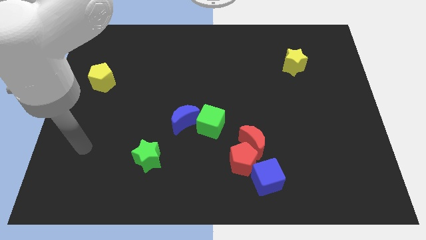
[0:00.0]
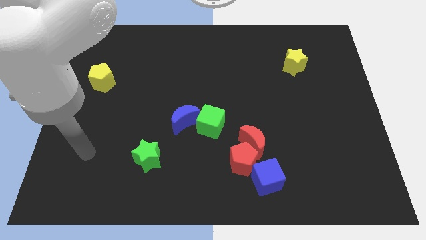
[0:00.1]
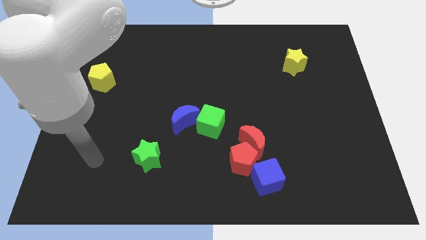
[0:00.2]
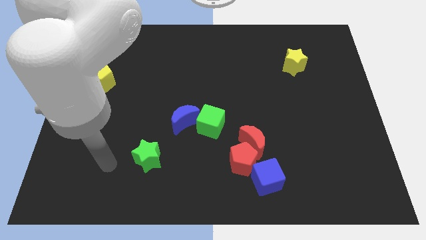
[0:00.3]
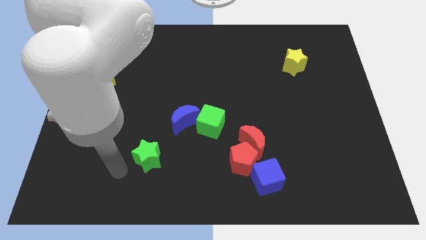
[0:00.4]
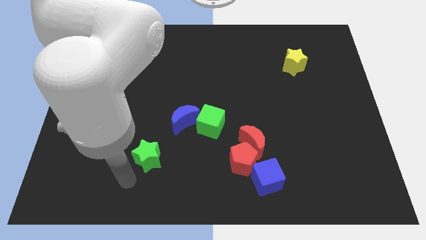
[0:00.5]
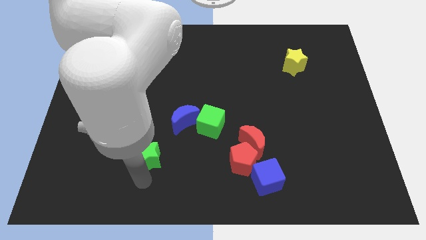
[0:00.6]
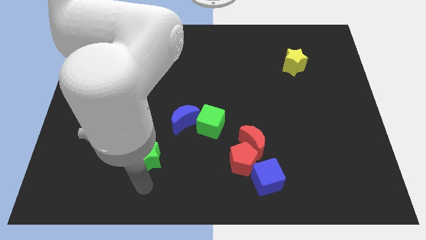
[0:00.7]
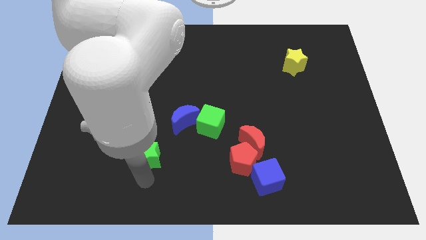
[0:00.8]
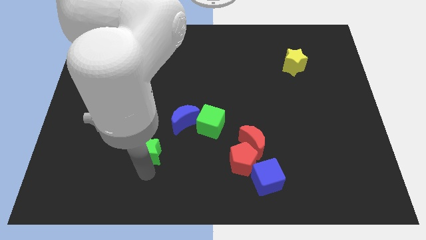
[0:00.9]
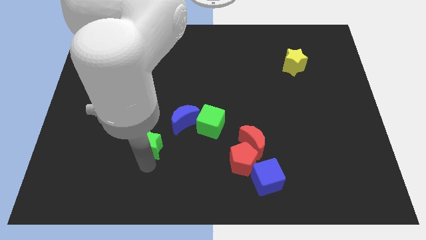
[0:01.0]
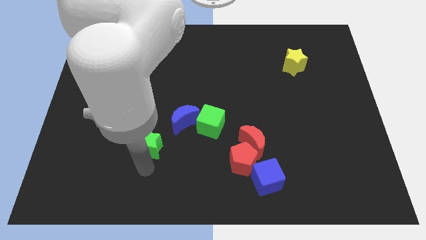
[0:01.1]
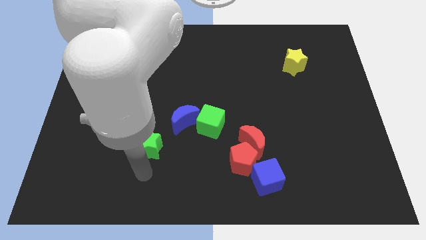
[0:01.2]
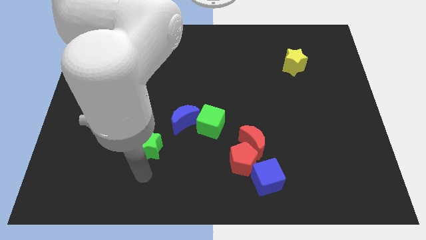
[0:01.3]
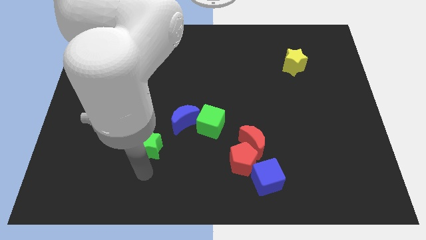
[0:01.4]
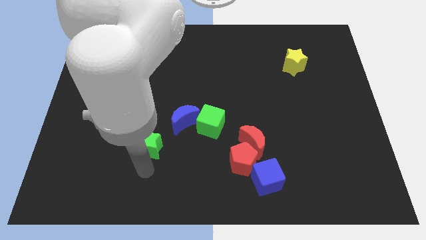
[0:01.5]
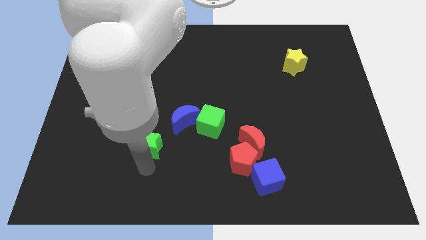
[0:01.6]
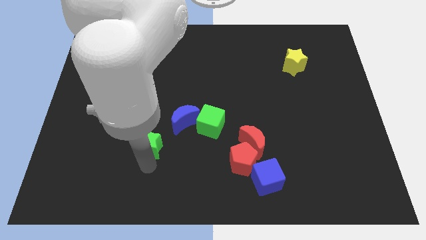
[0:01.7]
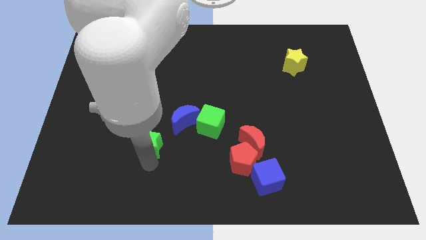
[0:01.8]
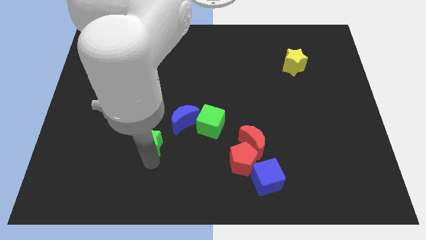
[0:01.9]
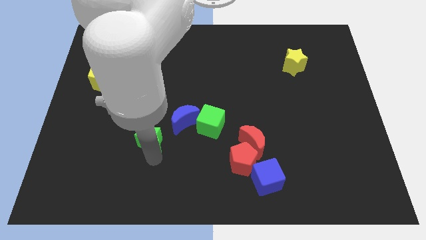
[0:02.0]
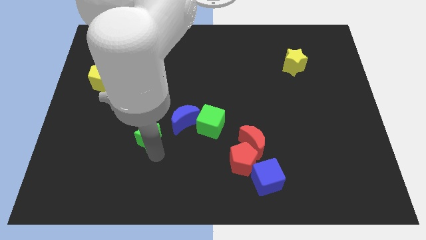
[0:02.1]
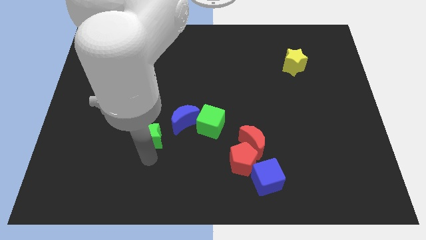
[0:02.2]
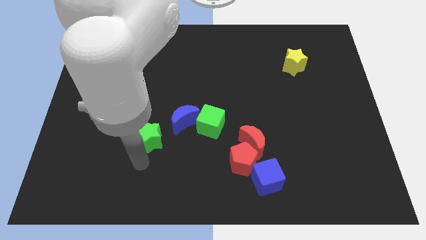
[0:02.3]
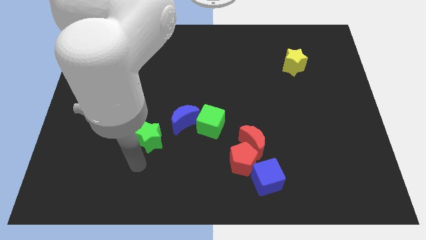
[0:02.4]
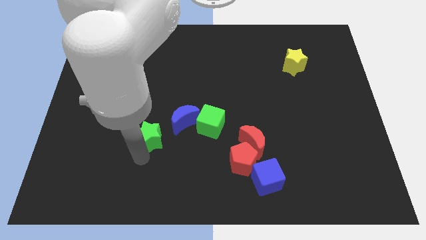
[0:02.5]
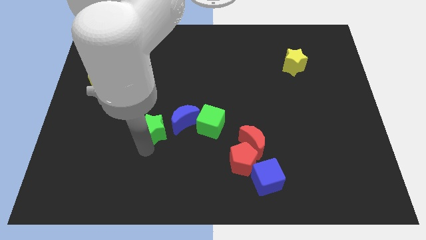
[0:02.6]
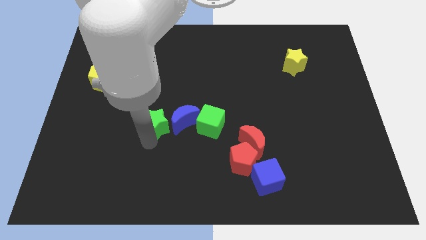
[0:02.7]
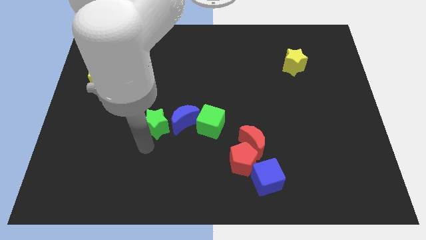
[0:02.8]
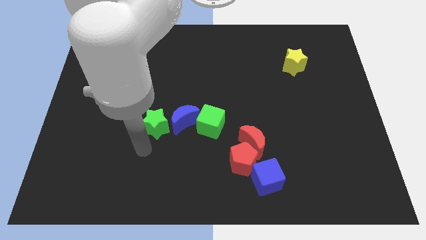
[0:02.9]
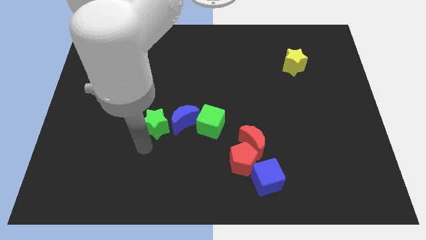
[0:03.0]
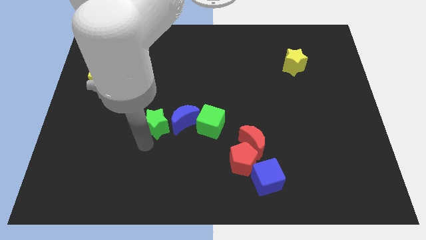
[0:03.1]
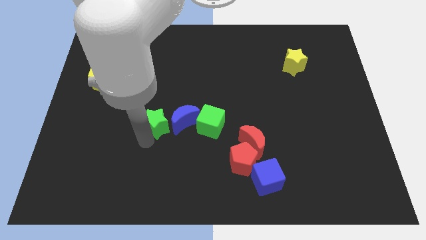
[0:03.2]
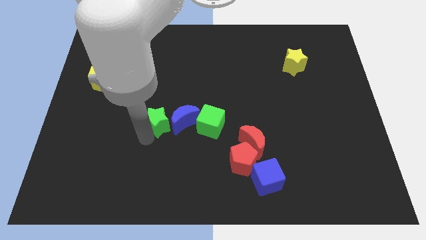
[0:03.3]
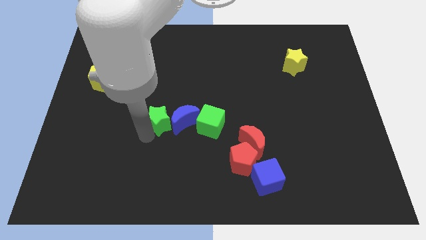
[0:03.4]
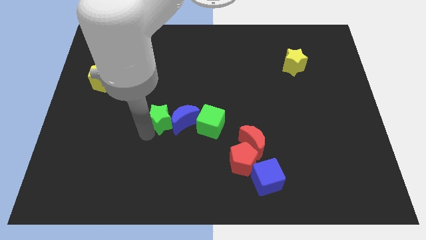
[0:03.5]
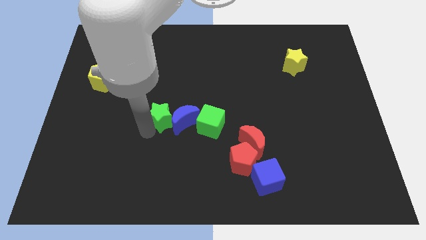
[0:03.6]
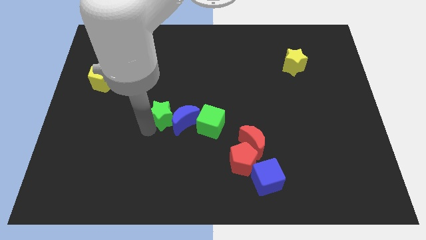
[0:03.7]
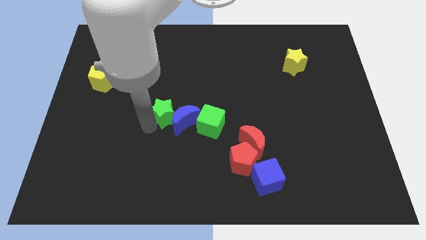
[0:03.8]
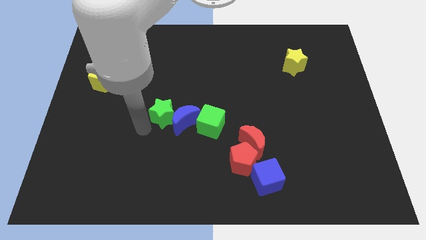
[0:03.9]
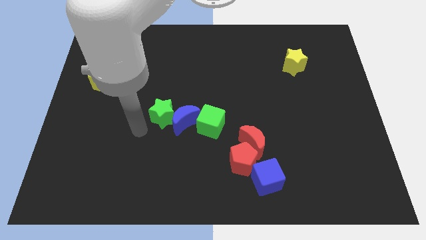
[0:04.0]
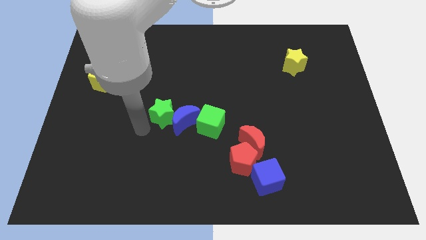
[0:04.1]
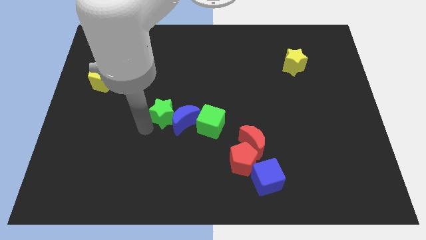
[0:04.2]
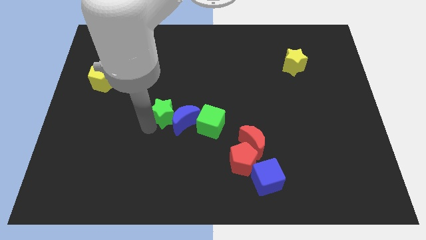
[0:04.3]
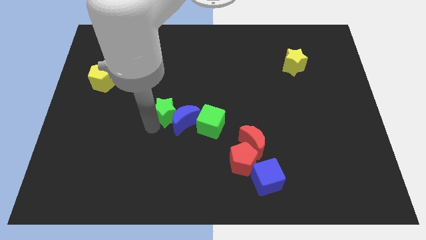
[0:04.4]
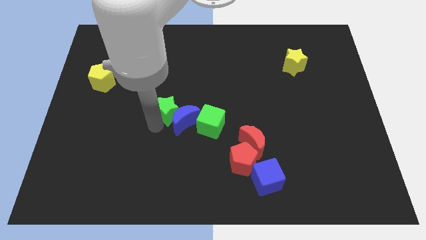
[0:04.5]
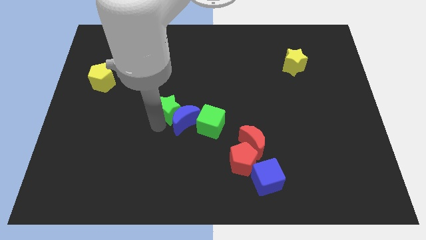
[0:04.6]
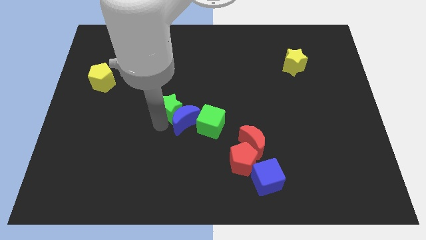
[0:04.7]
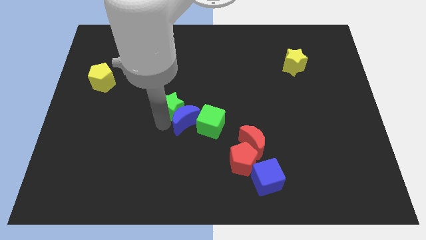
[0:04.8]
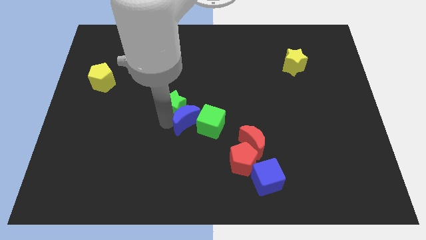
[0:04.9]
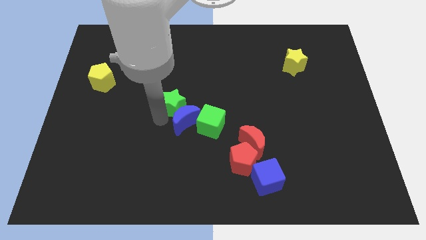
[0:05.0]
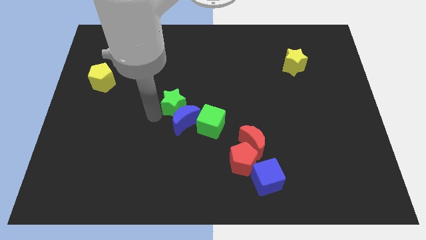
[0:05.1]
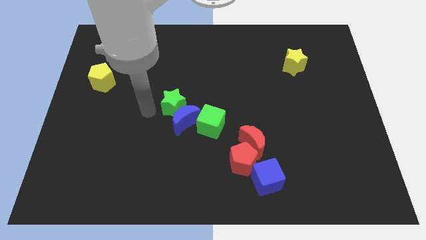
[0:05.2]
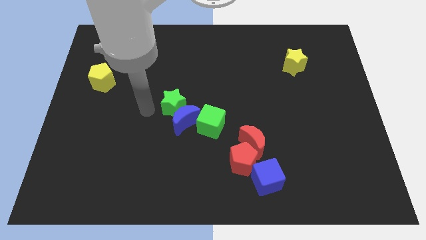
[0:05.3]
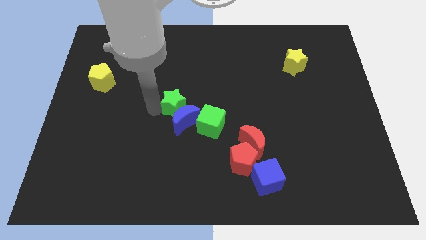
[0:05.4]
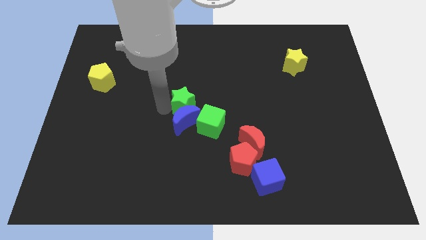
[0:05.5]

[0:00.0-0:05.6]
slide the green star to the top right side of the blue moon

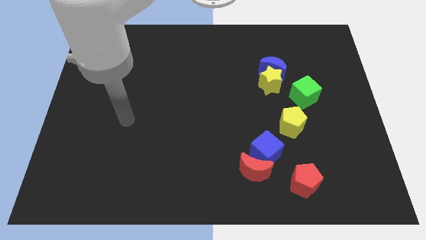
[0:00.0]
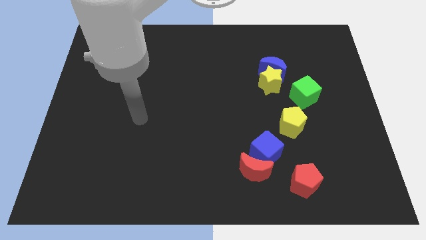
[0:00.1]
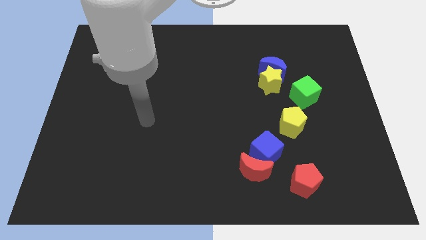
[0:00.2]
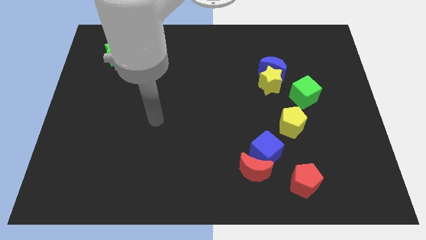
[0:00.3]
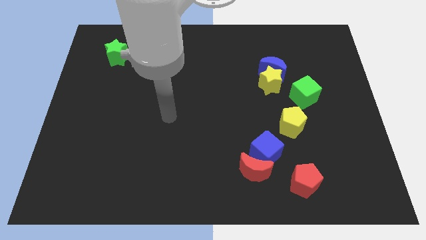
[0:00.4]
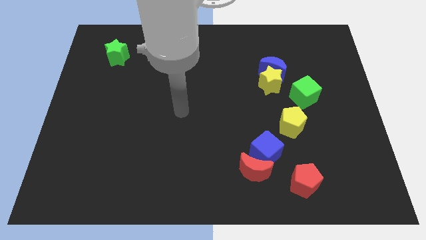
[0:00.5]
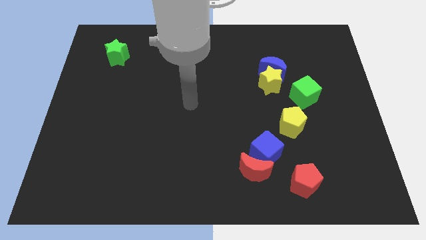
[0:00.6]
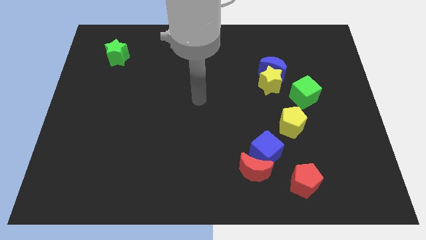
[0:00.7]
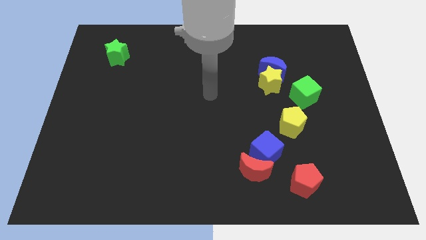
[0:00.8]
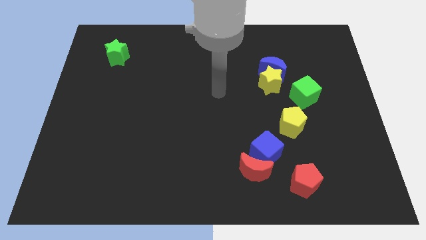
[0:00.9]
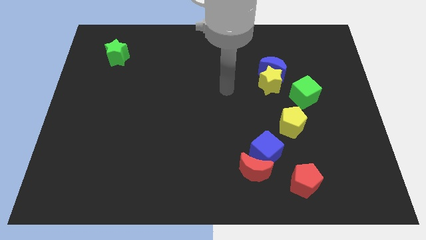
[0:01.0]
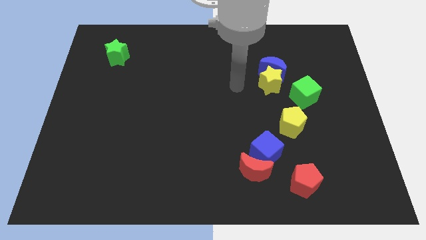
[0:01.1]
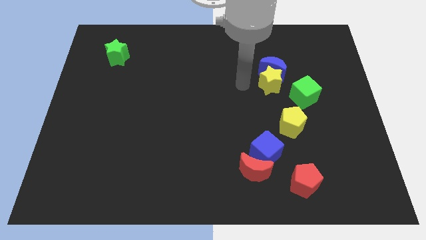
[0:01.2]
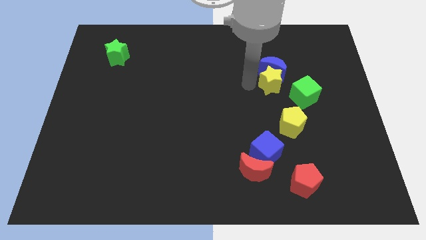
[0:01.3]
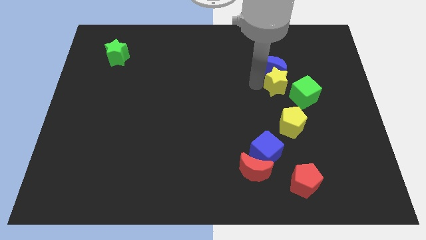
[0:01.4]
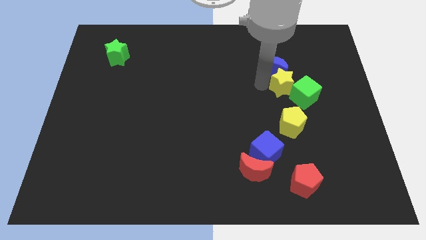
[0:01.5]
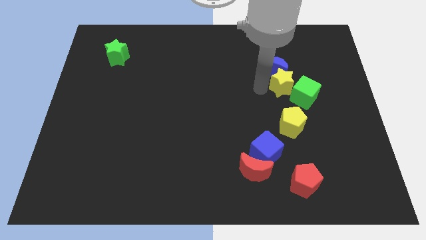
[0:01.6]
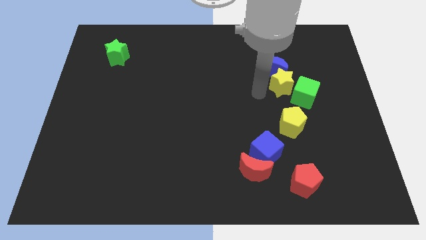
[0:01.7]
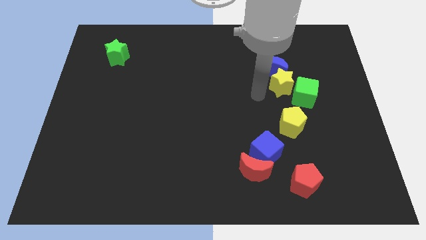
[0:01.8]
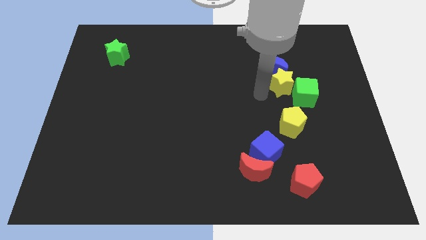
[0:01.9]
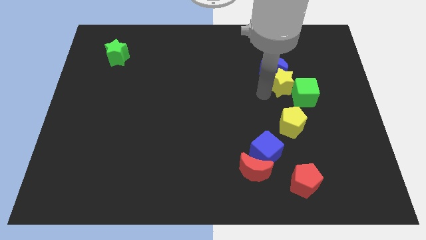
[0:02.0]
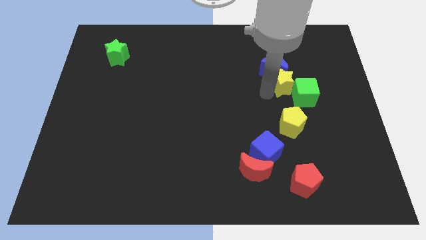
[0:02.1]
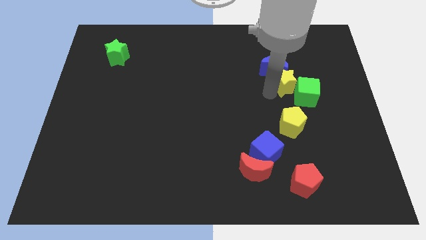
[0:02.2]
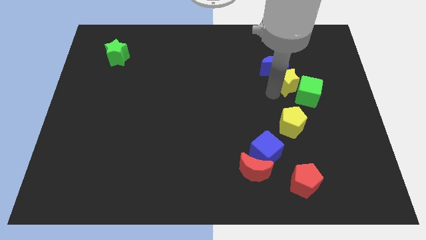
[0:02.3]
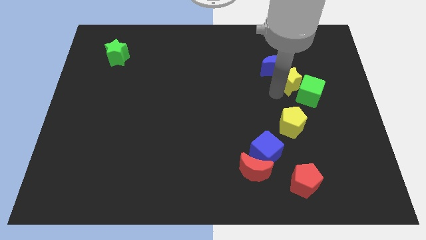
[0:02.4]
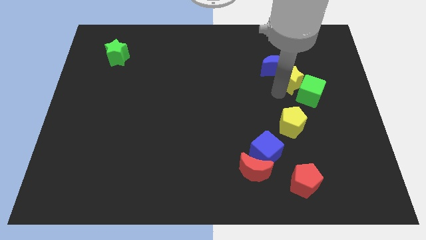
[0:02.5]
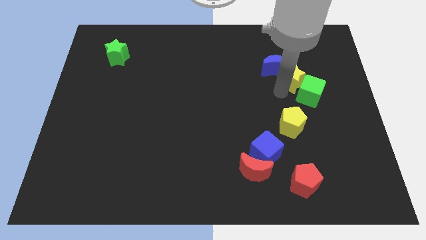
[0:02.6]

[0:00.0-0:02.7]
slide the yellow star right of the blue moon
